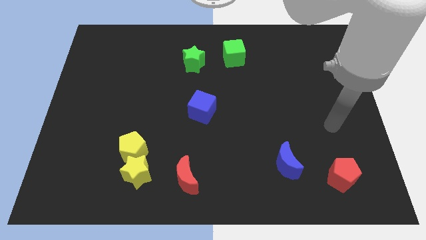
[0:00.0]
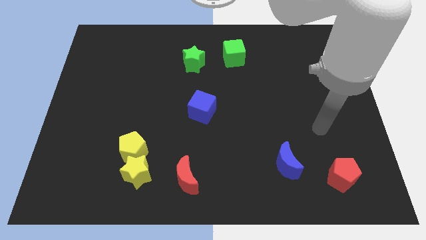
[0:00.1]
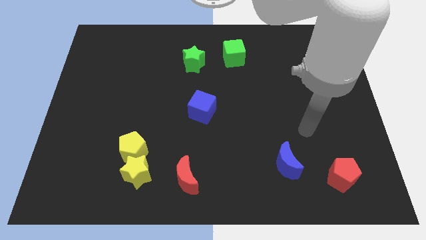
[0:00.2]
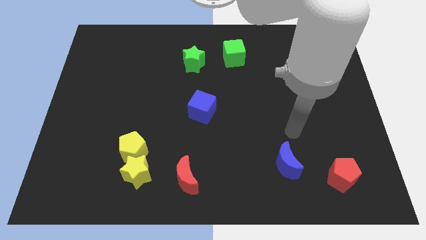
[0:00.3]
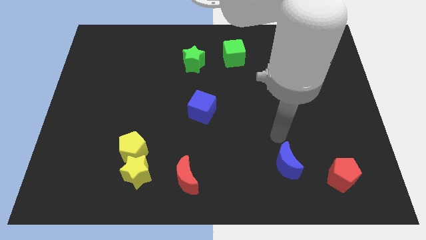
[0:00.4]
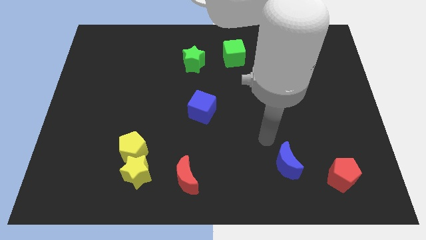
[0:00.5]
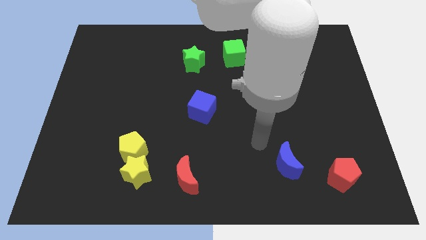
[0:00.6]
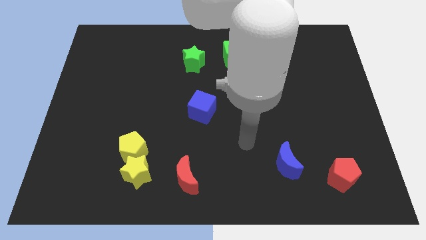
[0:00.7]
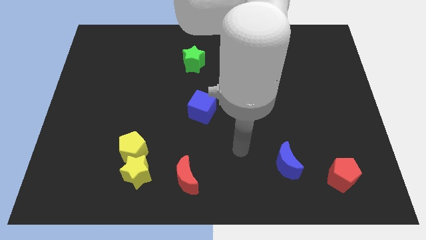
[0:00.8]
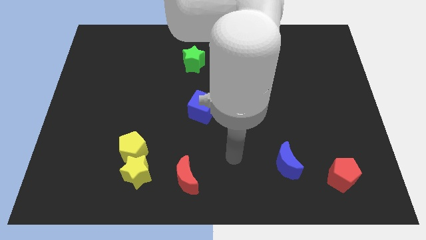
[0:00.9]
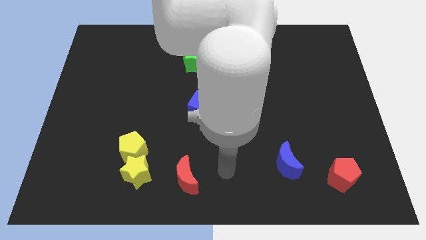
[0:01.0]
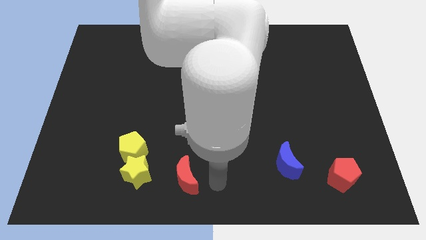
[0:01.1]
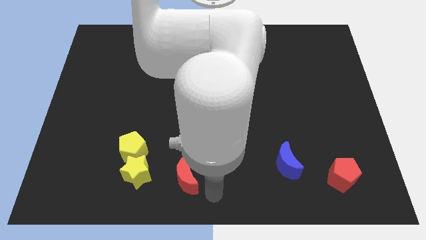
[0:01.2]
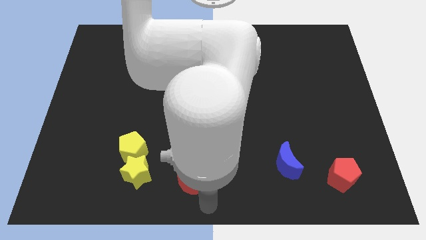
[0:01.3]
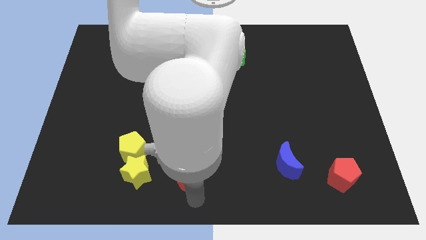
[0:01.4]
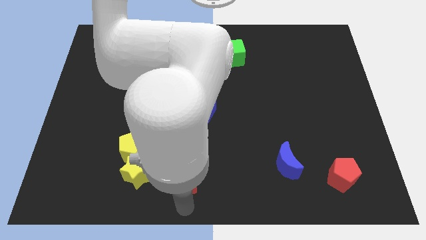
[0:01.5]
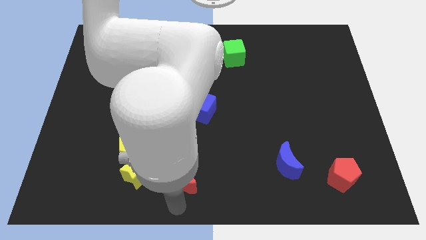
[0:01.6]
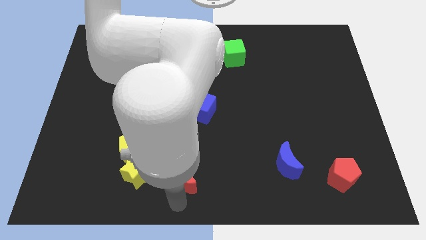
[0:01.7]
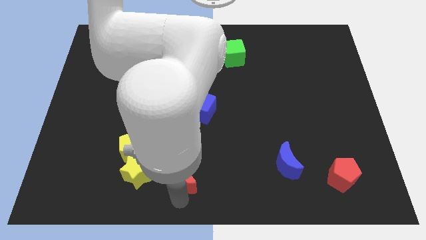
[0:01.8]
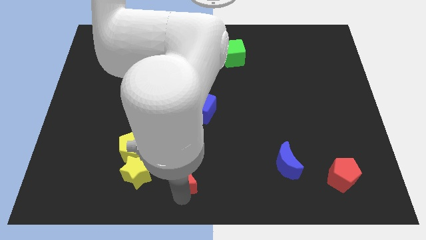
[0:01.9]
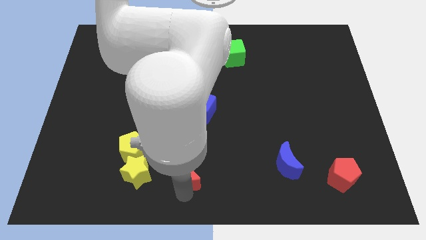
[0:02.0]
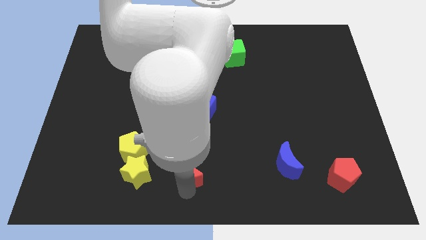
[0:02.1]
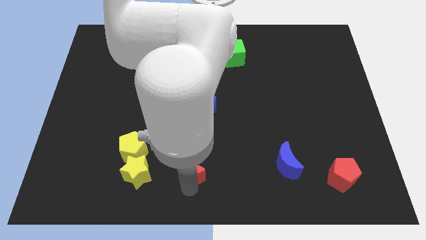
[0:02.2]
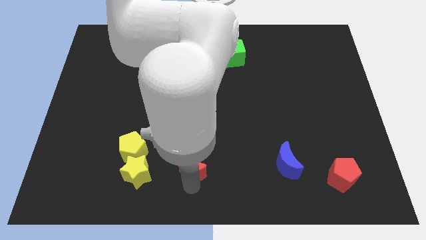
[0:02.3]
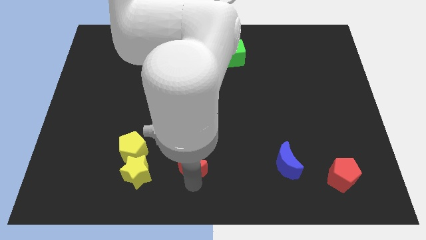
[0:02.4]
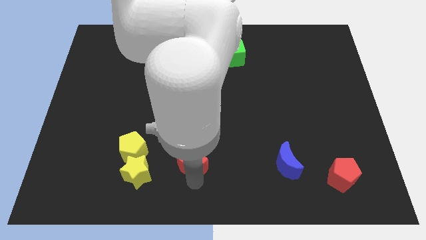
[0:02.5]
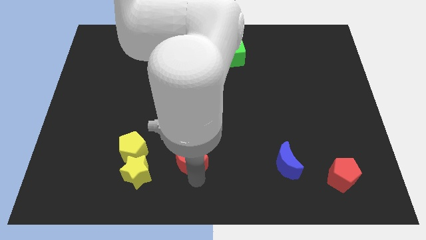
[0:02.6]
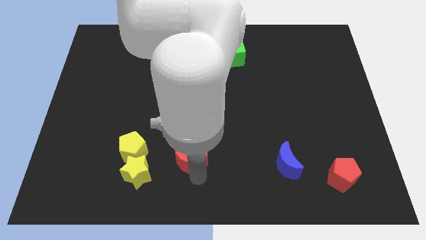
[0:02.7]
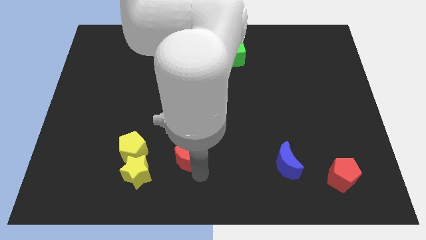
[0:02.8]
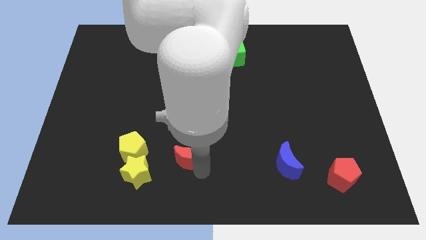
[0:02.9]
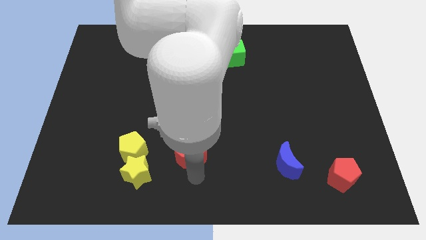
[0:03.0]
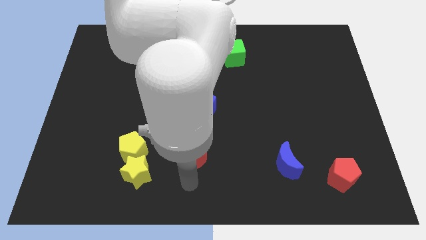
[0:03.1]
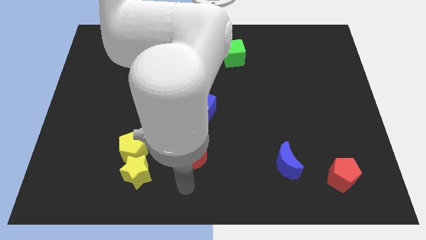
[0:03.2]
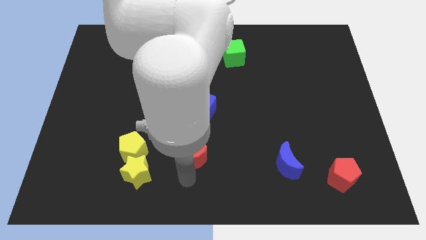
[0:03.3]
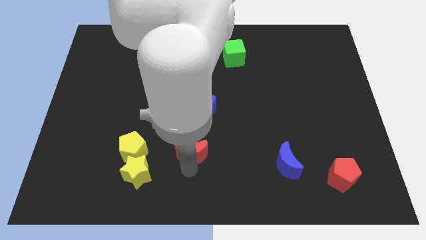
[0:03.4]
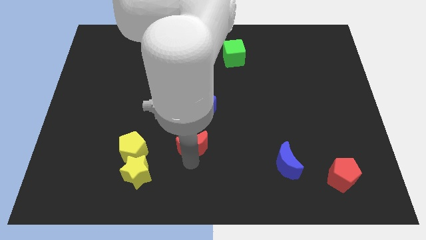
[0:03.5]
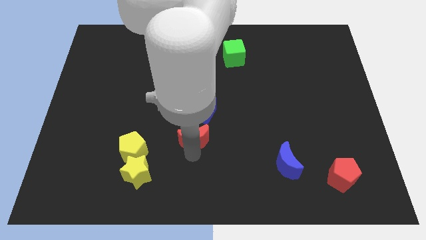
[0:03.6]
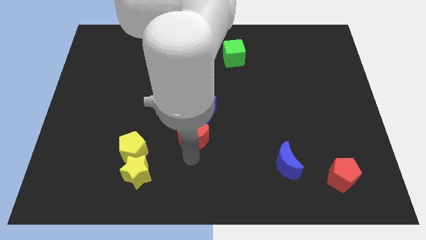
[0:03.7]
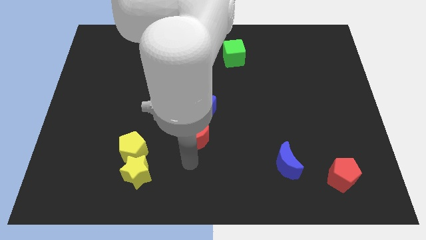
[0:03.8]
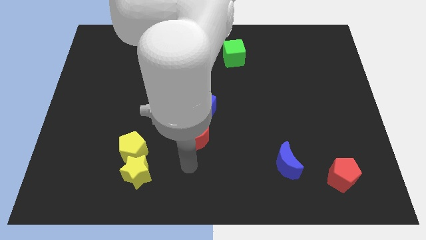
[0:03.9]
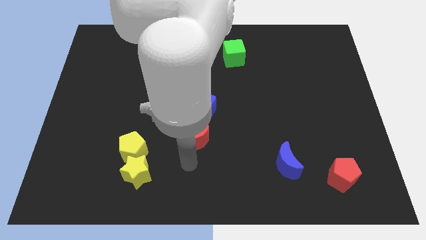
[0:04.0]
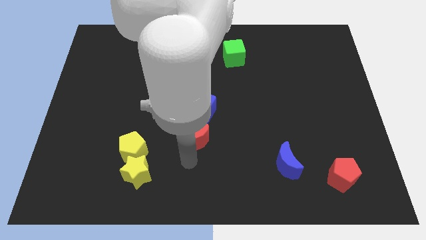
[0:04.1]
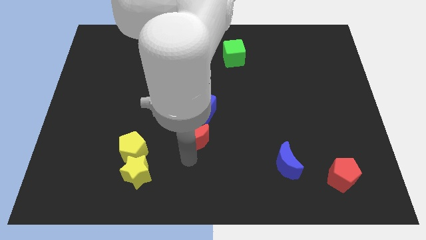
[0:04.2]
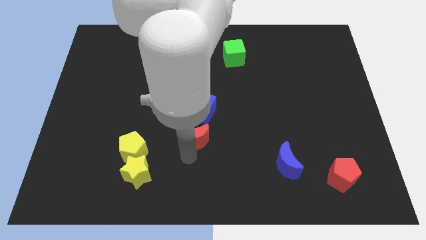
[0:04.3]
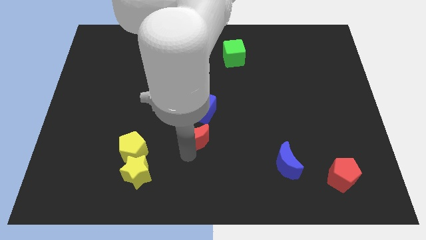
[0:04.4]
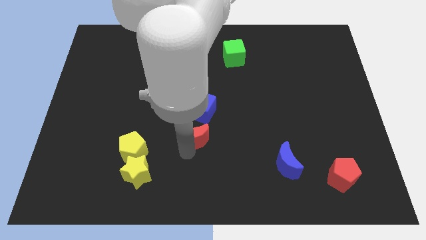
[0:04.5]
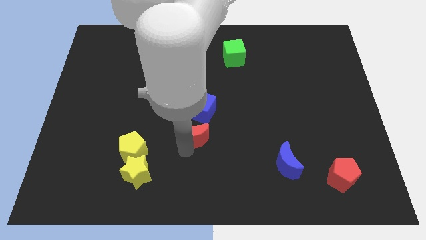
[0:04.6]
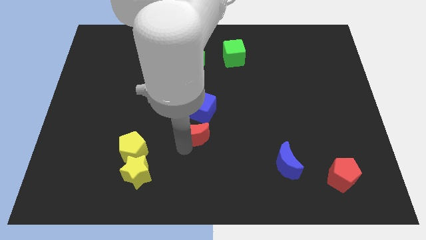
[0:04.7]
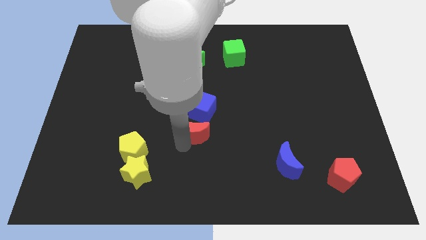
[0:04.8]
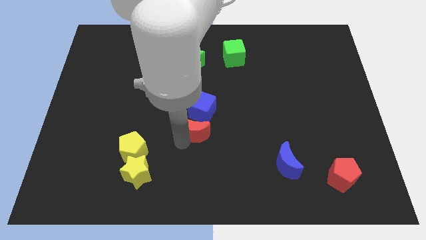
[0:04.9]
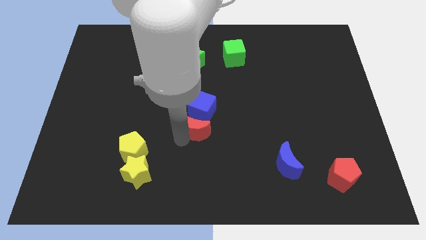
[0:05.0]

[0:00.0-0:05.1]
push the red moon to the blue cube

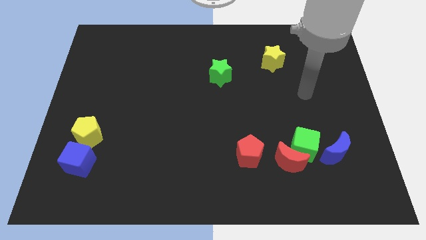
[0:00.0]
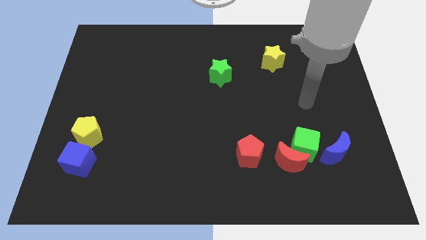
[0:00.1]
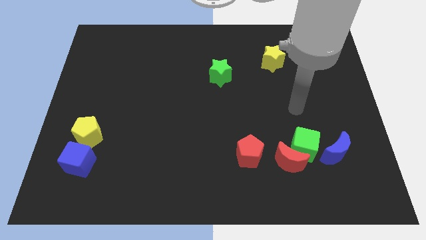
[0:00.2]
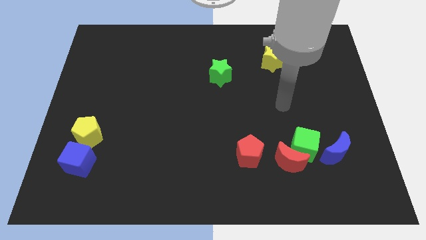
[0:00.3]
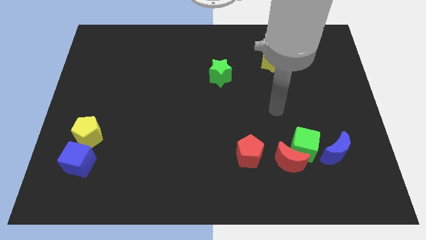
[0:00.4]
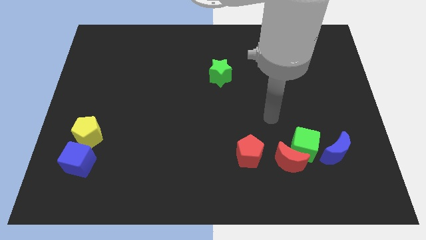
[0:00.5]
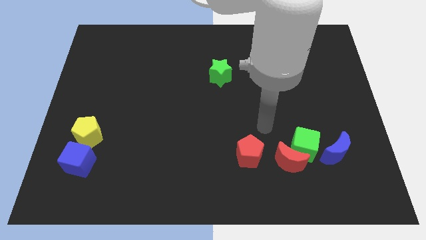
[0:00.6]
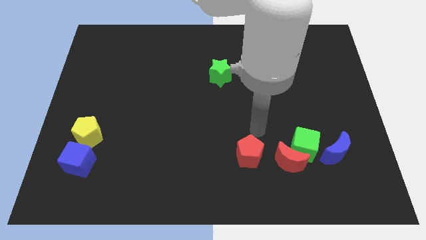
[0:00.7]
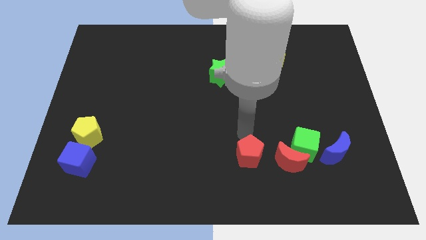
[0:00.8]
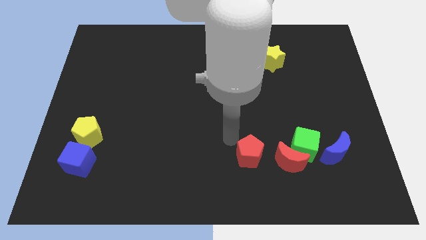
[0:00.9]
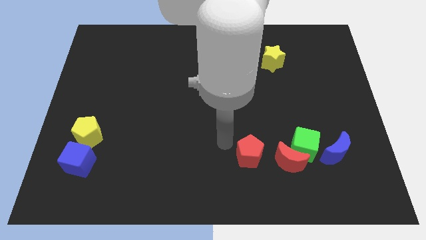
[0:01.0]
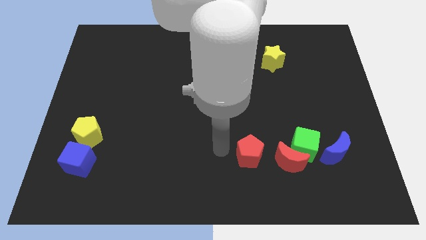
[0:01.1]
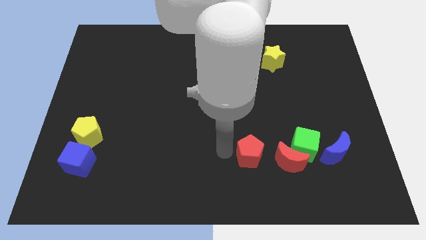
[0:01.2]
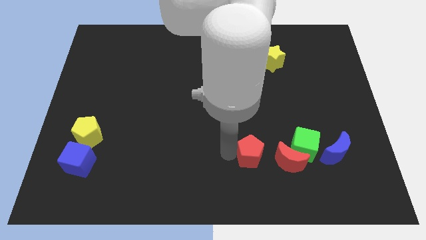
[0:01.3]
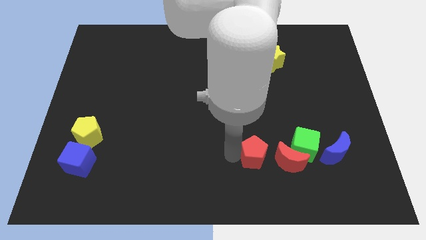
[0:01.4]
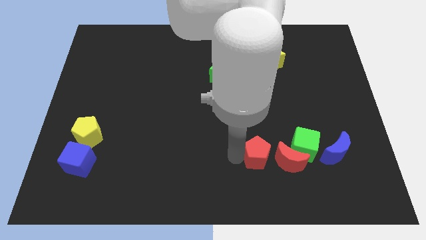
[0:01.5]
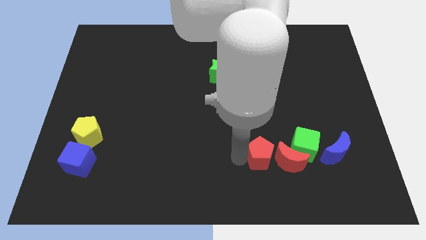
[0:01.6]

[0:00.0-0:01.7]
move the red pentagon next to the red moon
